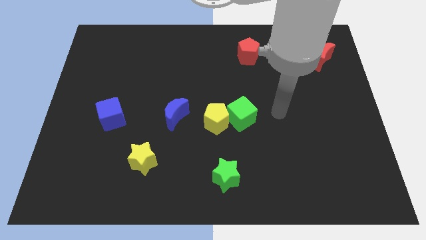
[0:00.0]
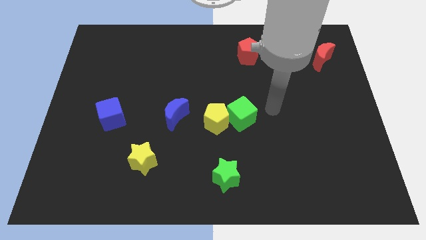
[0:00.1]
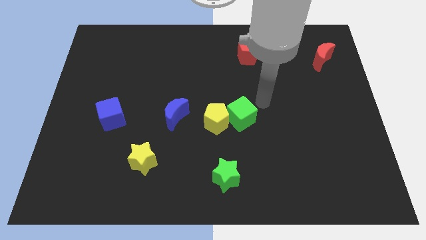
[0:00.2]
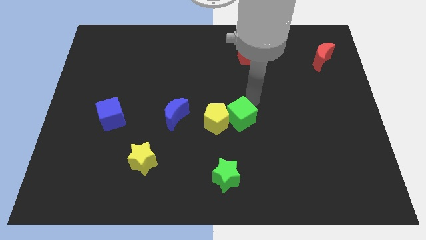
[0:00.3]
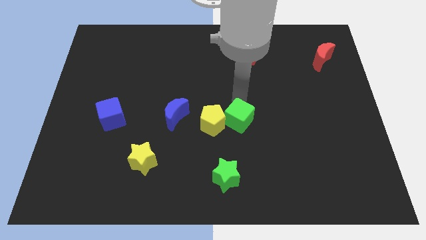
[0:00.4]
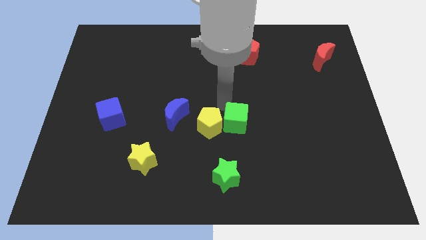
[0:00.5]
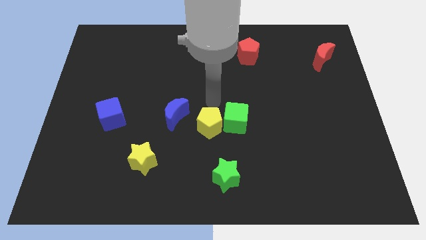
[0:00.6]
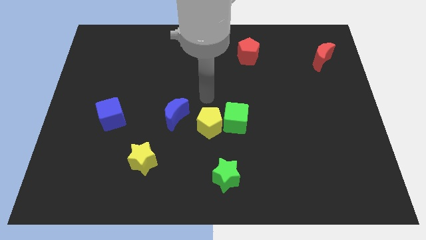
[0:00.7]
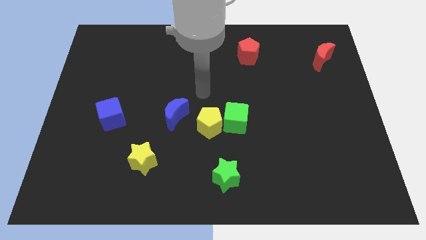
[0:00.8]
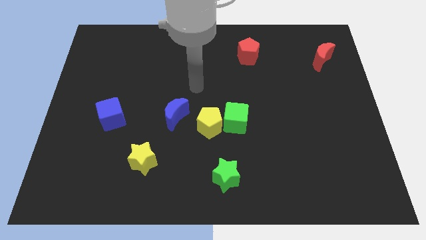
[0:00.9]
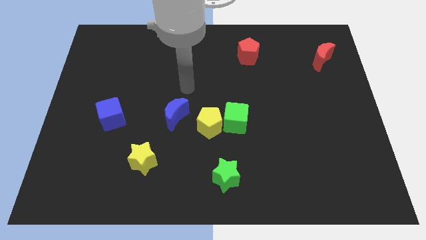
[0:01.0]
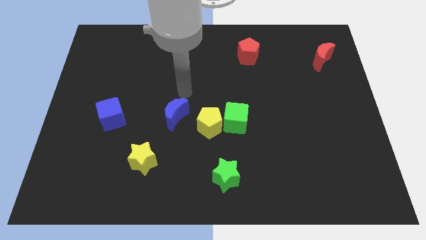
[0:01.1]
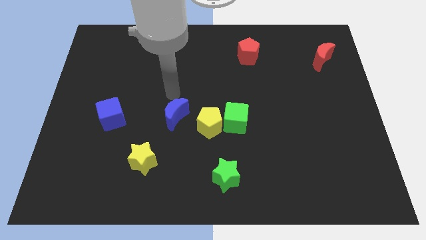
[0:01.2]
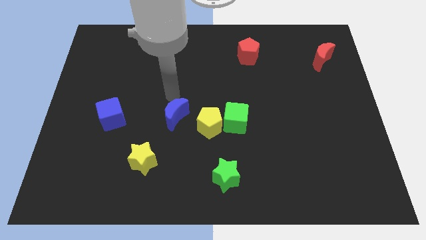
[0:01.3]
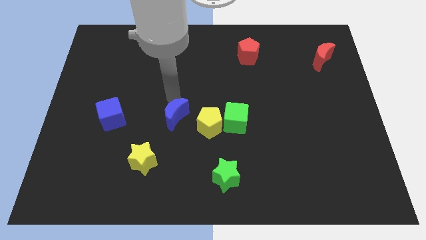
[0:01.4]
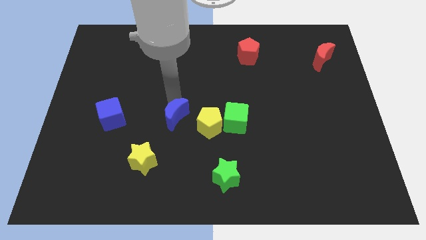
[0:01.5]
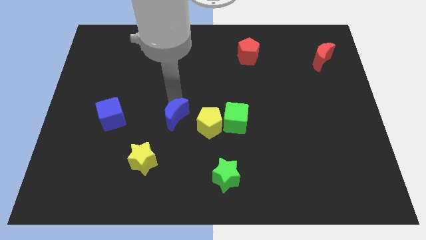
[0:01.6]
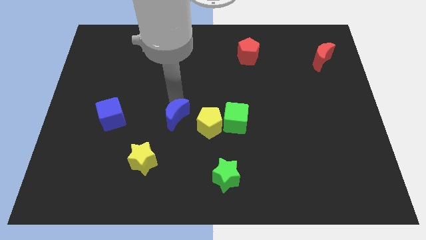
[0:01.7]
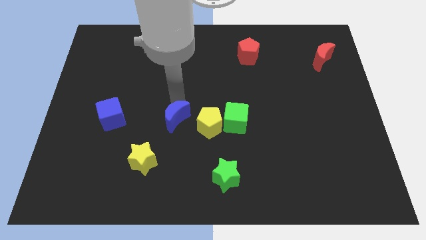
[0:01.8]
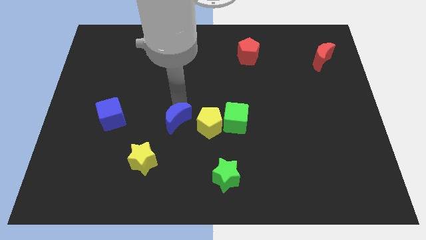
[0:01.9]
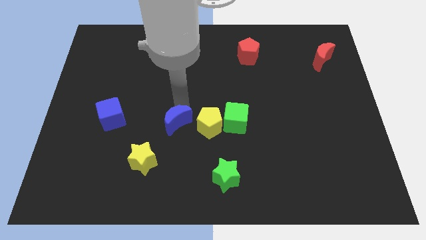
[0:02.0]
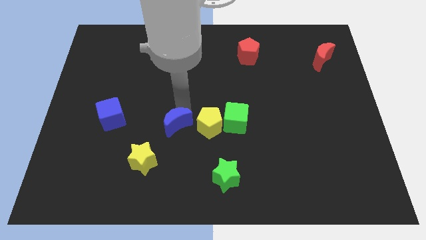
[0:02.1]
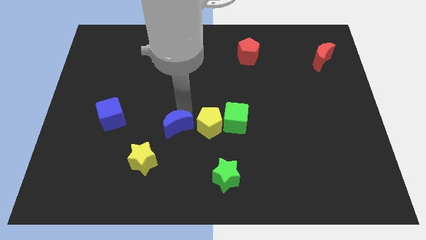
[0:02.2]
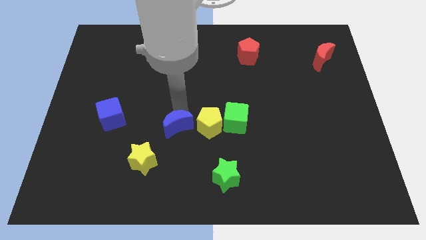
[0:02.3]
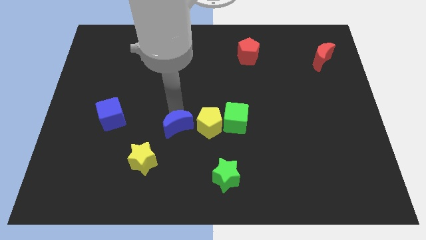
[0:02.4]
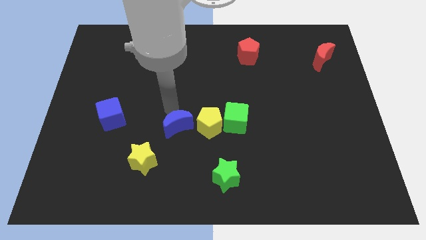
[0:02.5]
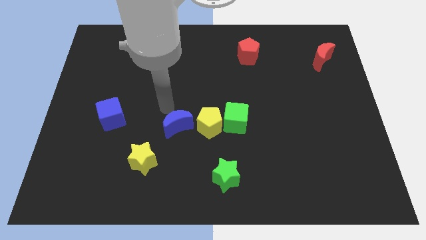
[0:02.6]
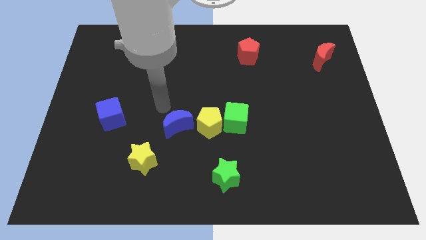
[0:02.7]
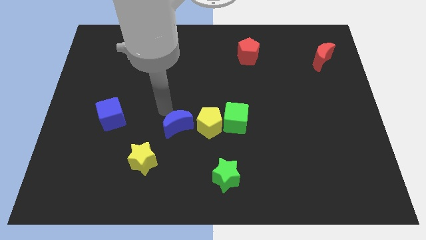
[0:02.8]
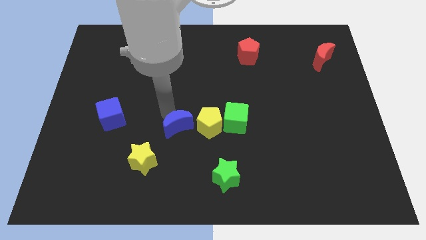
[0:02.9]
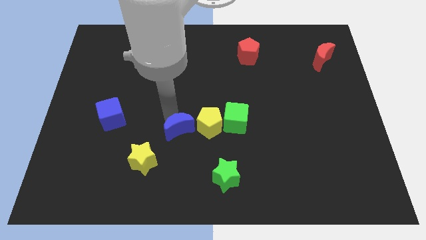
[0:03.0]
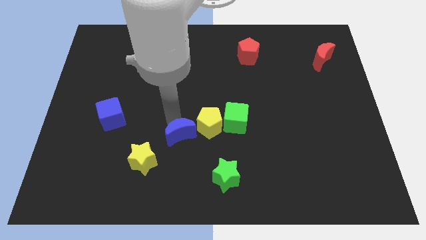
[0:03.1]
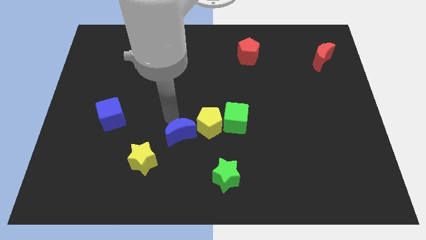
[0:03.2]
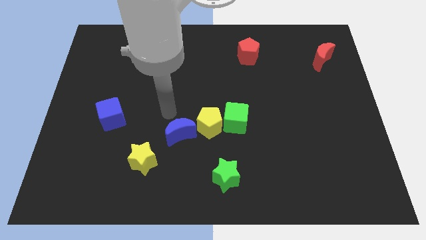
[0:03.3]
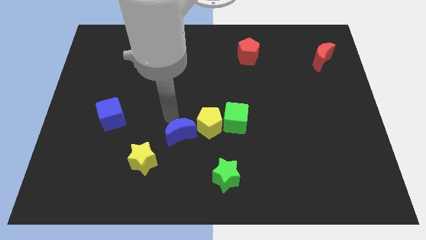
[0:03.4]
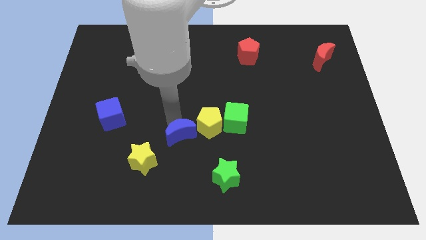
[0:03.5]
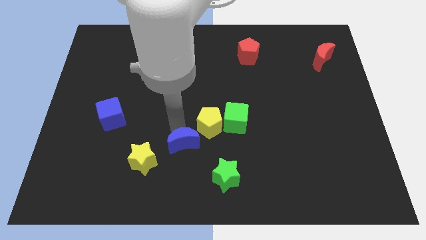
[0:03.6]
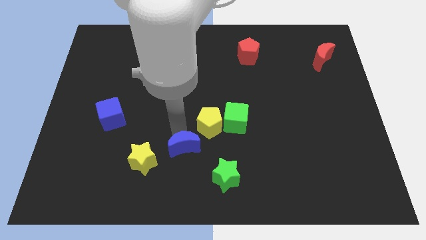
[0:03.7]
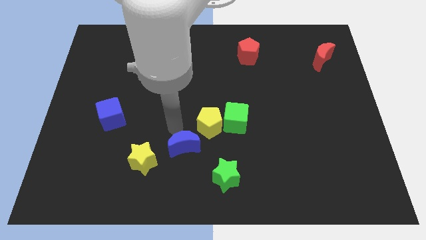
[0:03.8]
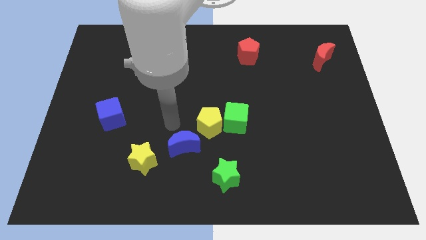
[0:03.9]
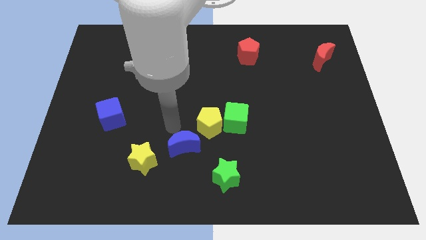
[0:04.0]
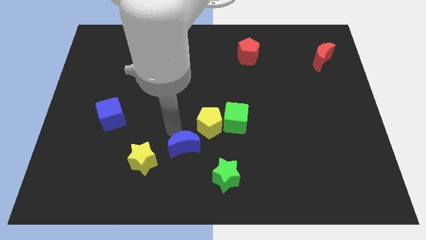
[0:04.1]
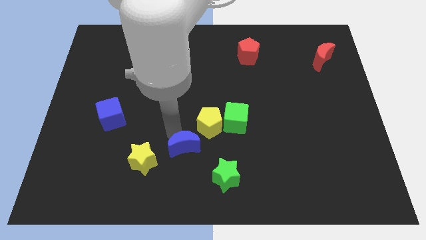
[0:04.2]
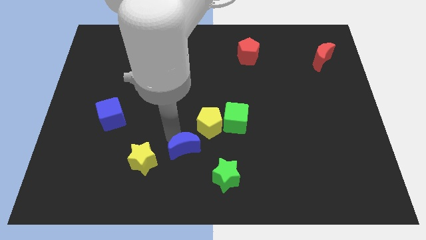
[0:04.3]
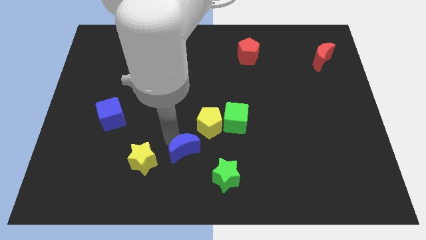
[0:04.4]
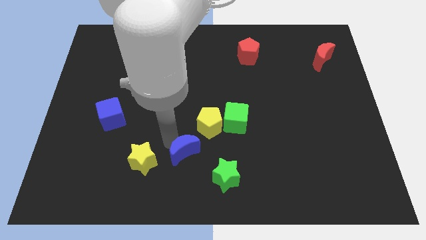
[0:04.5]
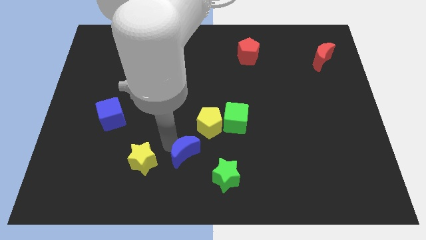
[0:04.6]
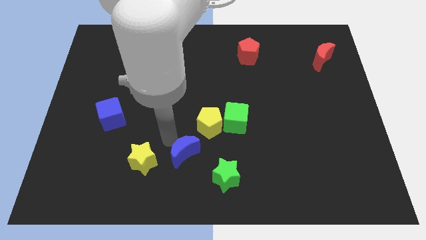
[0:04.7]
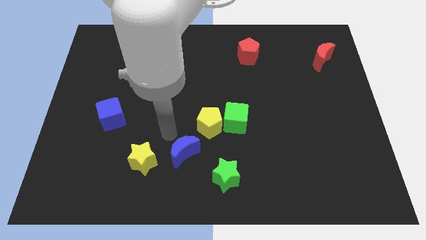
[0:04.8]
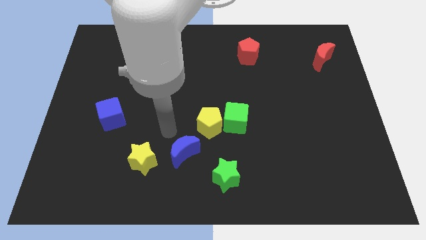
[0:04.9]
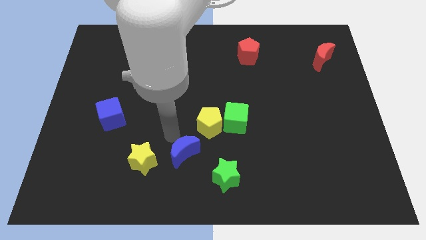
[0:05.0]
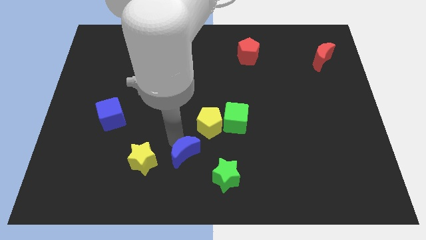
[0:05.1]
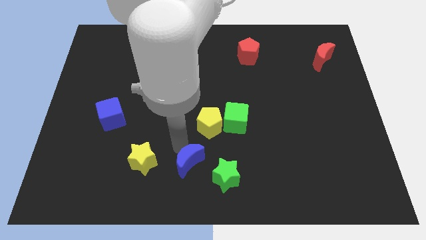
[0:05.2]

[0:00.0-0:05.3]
push the blue moon to the bottom side

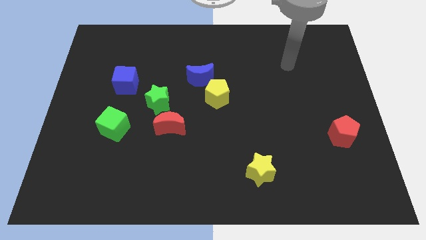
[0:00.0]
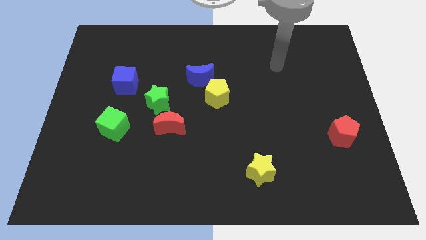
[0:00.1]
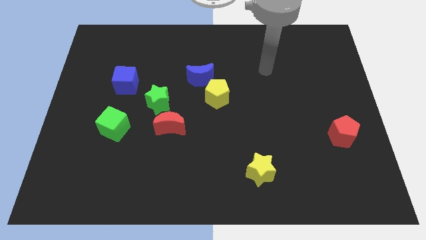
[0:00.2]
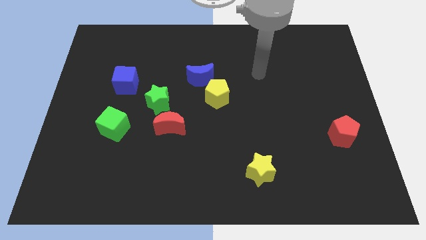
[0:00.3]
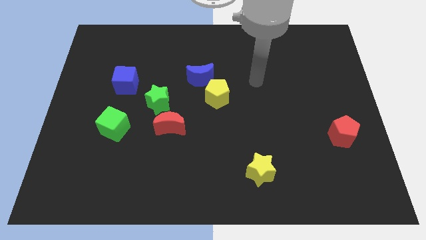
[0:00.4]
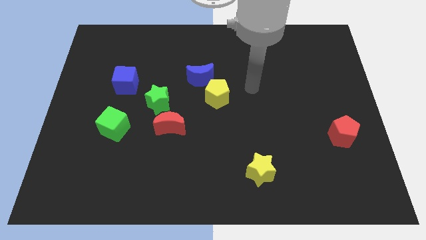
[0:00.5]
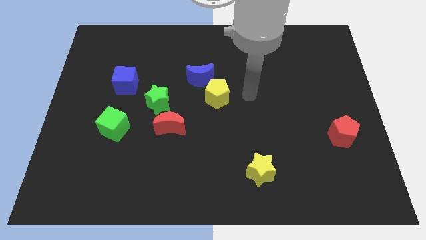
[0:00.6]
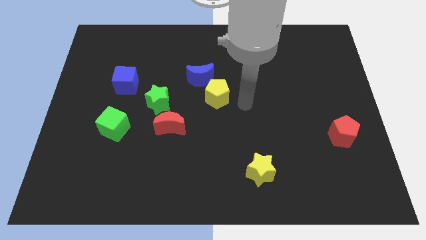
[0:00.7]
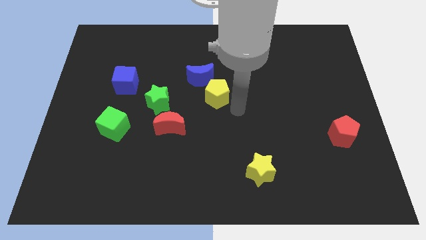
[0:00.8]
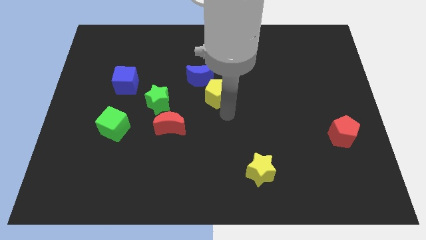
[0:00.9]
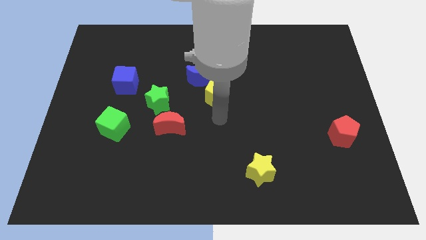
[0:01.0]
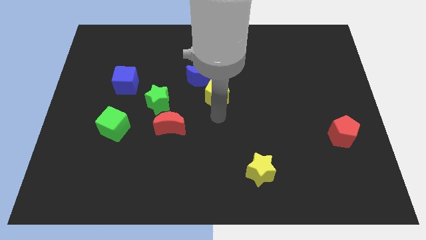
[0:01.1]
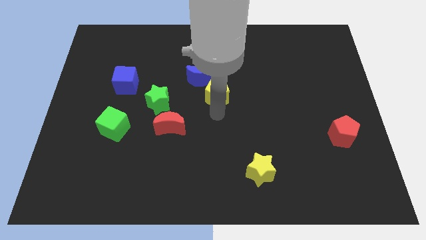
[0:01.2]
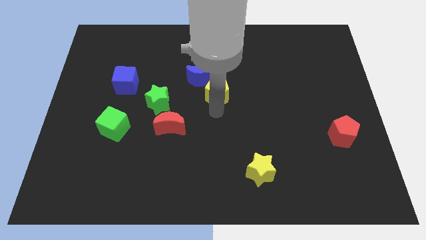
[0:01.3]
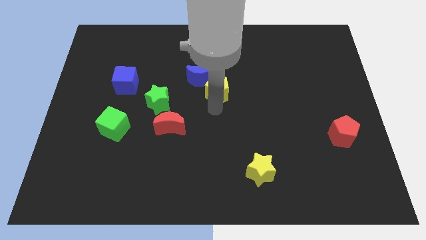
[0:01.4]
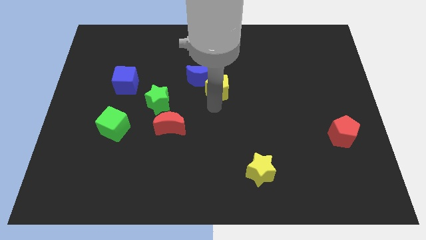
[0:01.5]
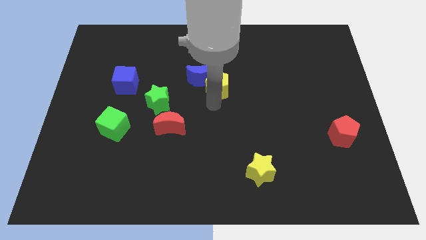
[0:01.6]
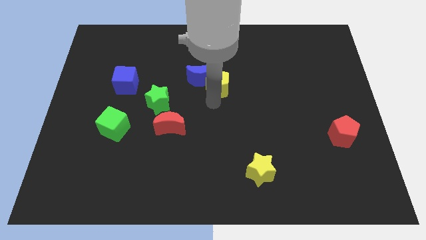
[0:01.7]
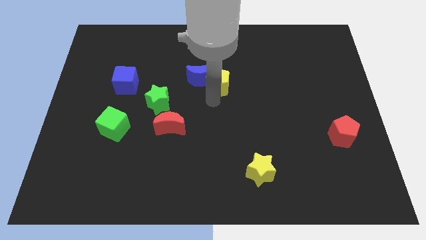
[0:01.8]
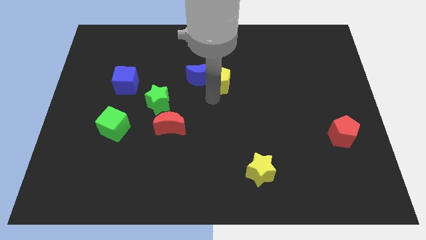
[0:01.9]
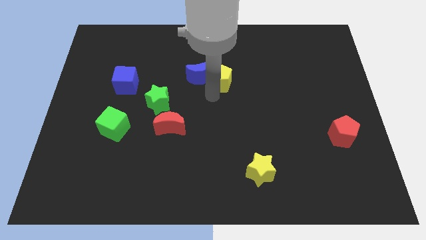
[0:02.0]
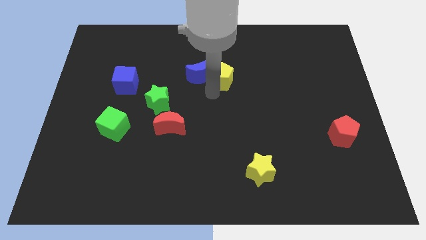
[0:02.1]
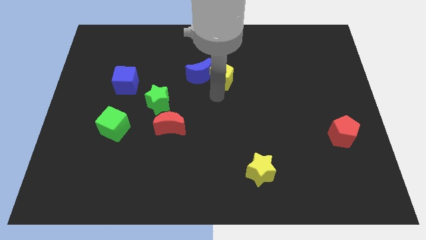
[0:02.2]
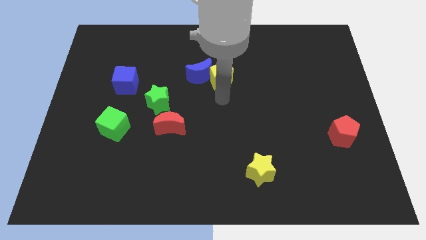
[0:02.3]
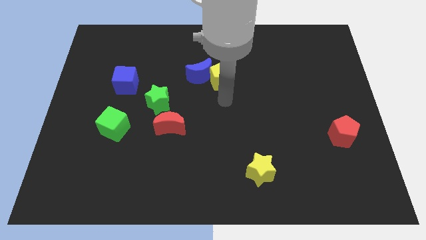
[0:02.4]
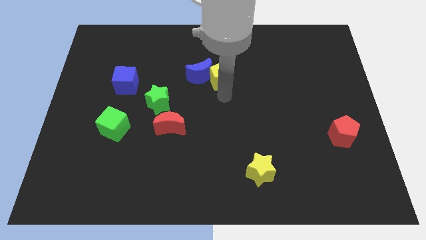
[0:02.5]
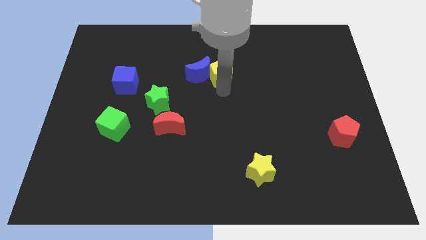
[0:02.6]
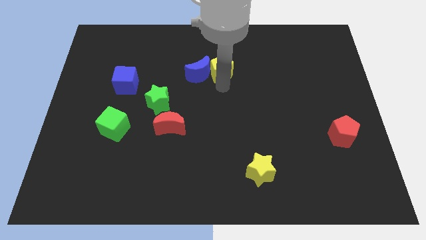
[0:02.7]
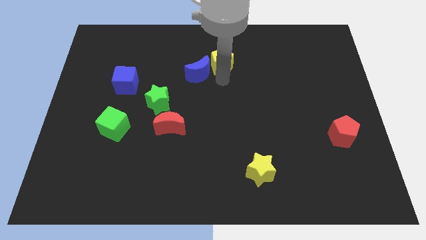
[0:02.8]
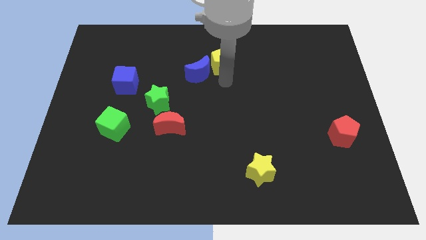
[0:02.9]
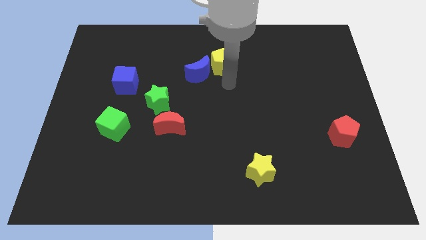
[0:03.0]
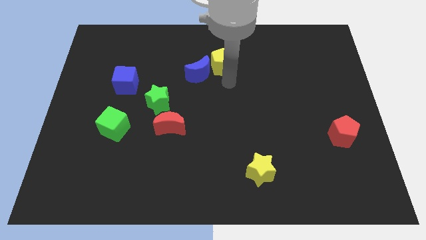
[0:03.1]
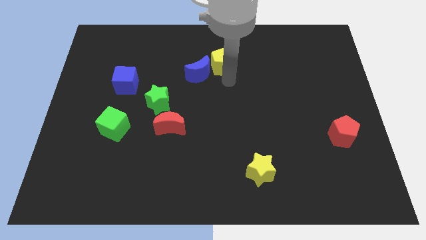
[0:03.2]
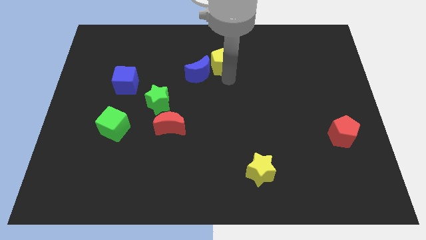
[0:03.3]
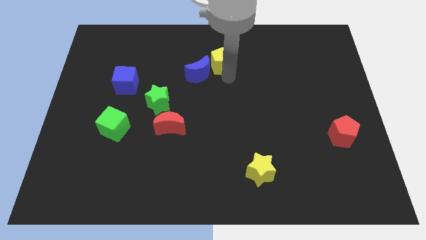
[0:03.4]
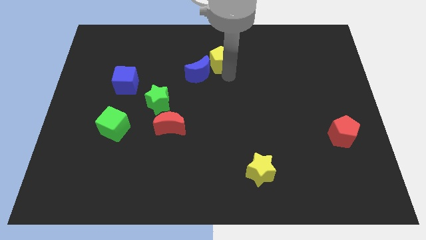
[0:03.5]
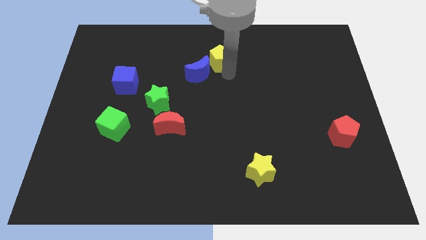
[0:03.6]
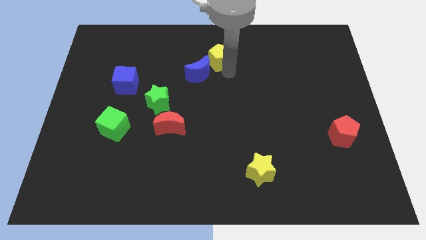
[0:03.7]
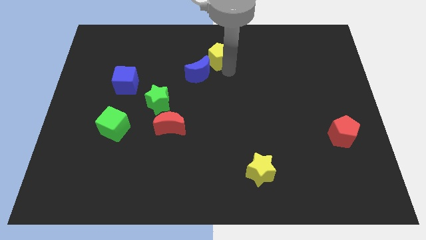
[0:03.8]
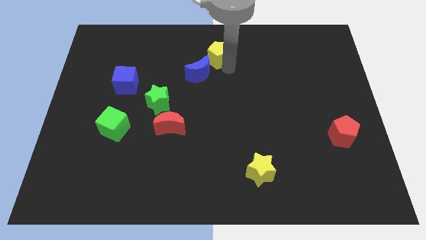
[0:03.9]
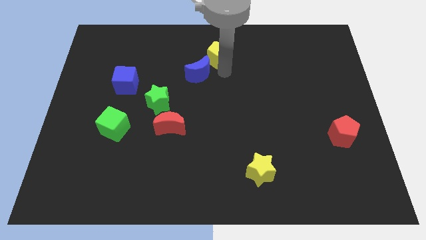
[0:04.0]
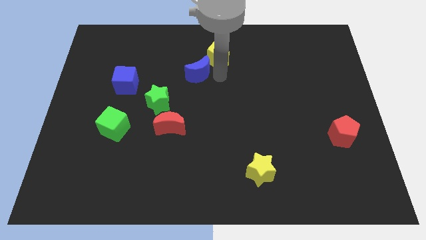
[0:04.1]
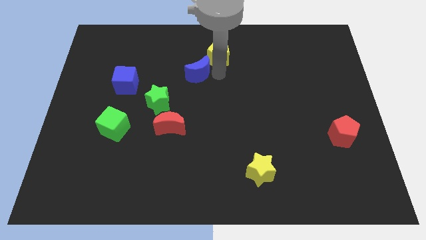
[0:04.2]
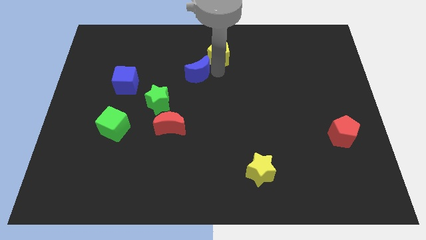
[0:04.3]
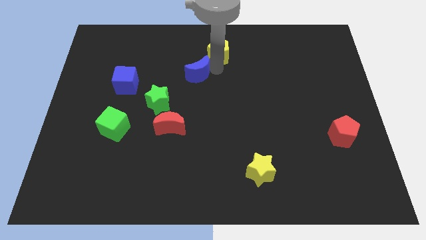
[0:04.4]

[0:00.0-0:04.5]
push the yellow pentagon to the towards your base
